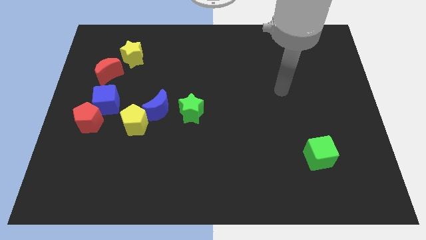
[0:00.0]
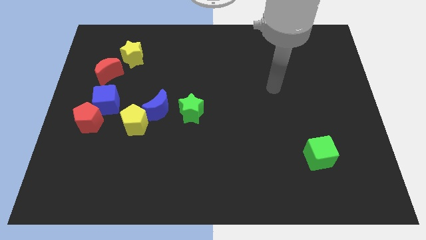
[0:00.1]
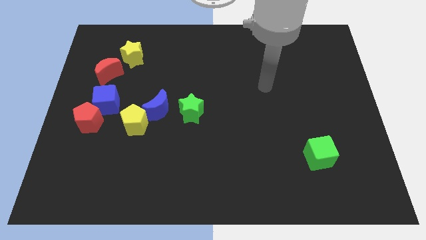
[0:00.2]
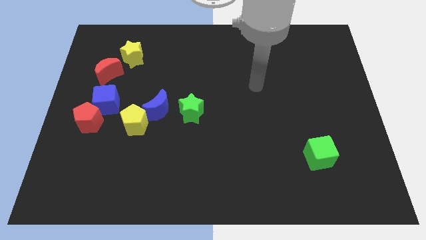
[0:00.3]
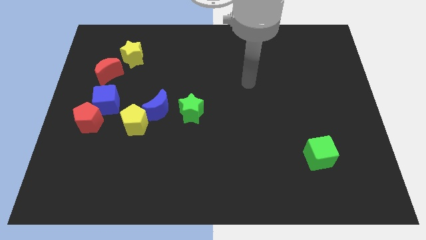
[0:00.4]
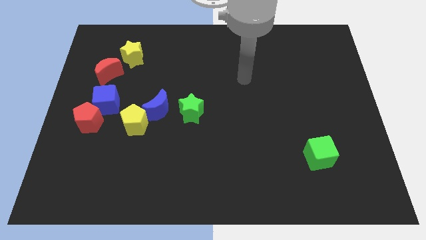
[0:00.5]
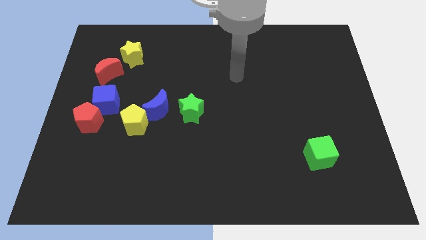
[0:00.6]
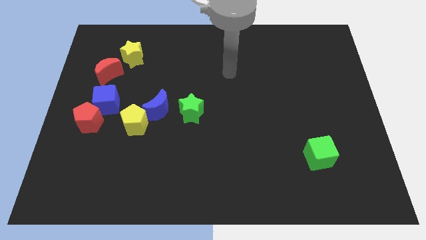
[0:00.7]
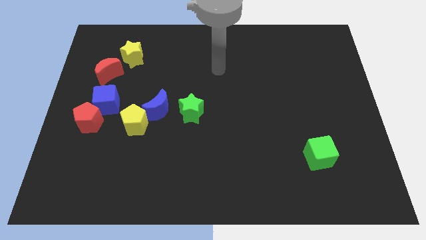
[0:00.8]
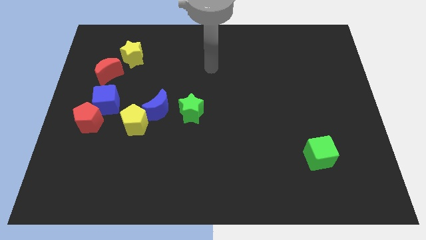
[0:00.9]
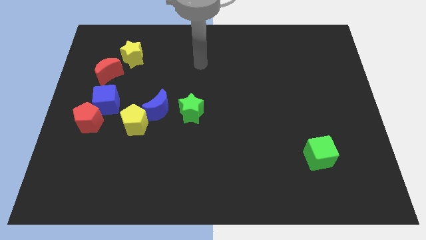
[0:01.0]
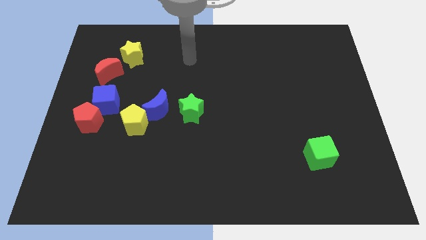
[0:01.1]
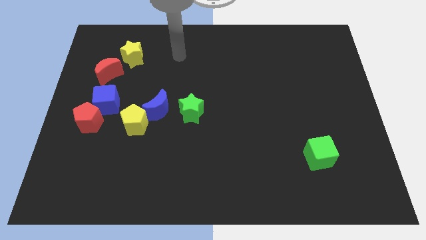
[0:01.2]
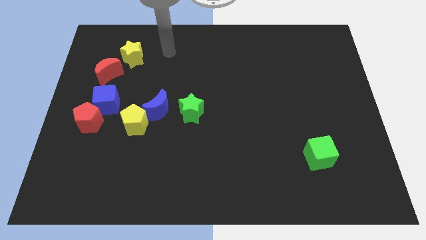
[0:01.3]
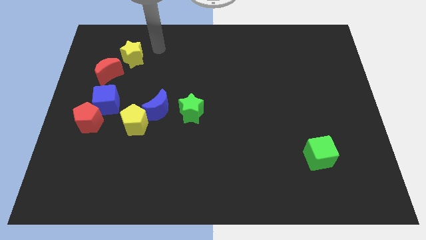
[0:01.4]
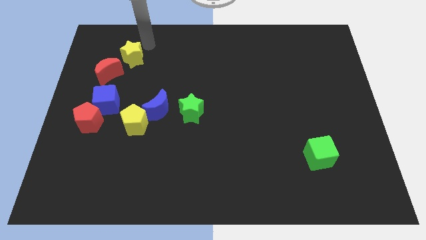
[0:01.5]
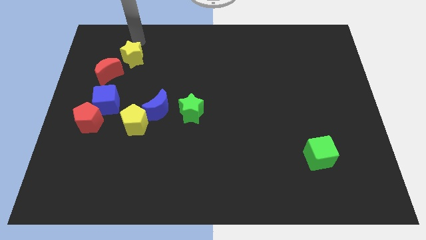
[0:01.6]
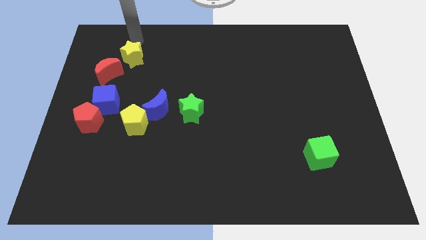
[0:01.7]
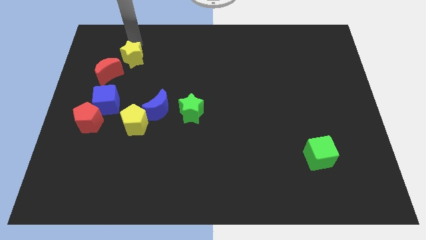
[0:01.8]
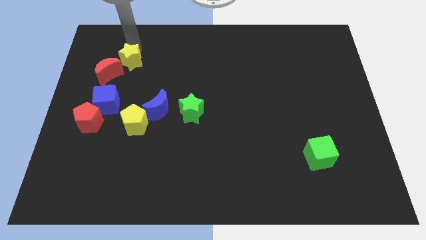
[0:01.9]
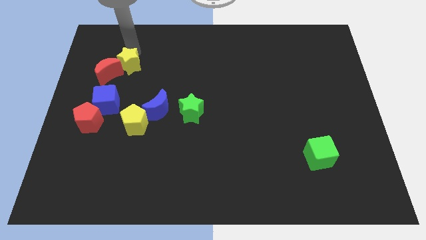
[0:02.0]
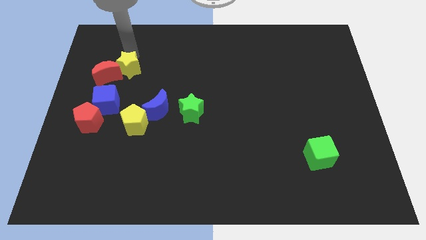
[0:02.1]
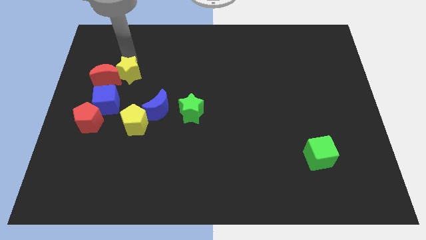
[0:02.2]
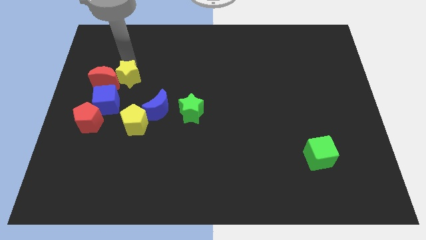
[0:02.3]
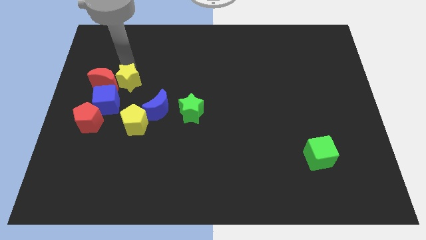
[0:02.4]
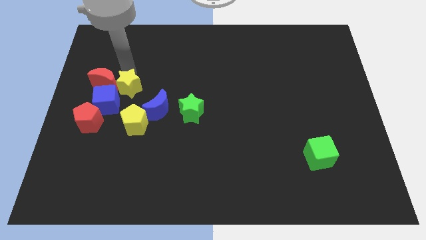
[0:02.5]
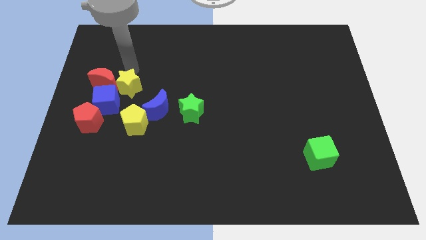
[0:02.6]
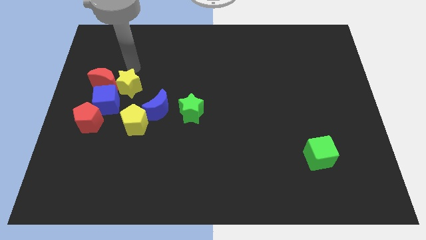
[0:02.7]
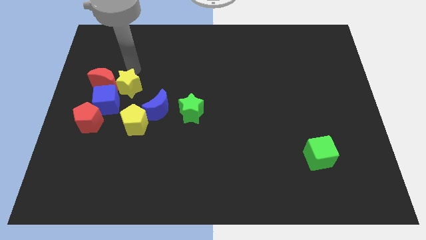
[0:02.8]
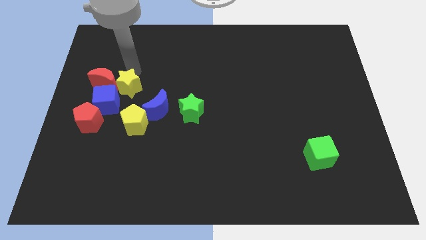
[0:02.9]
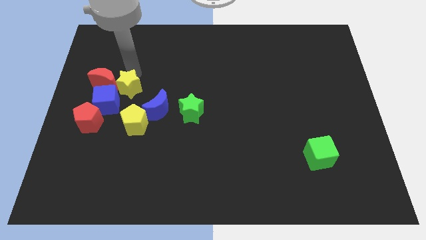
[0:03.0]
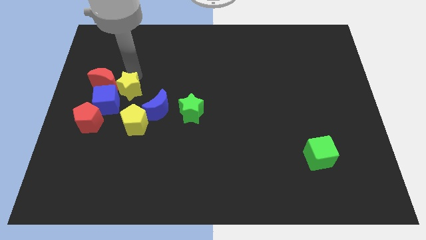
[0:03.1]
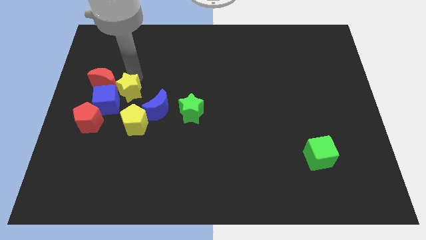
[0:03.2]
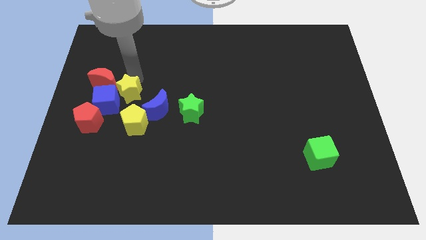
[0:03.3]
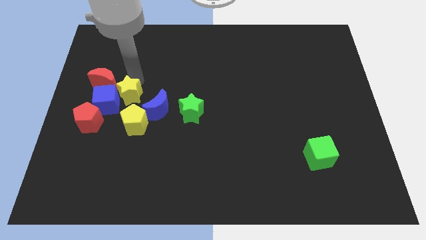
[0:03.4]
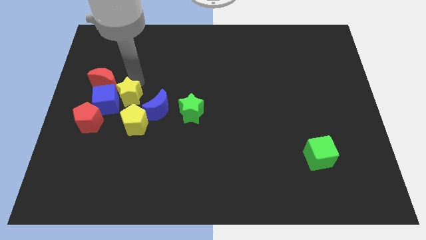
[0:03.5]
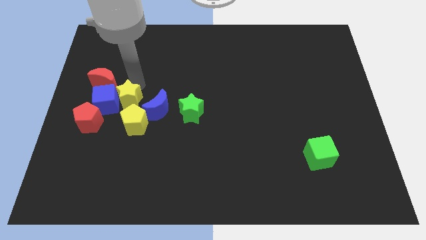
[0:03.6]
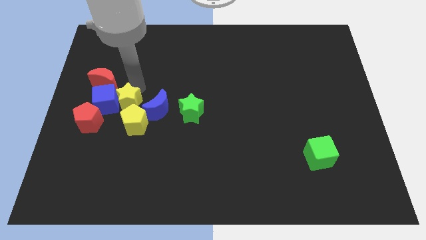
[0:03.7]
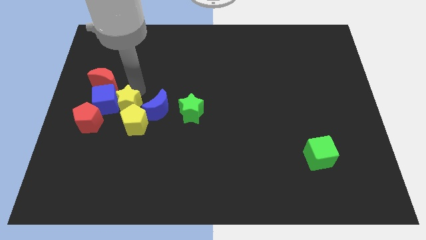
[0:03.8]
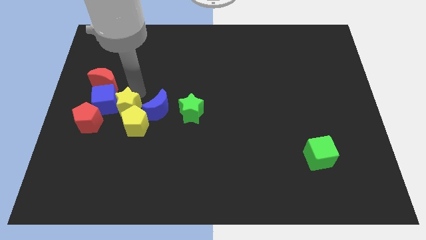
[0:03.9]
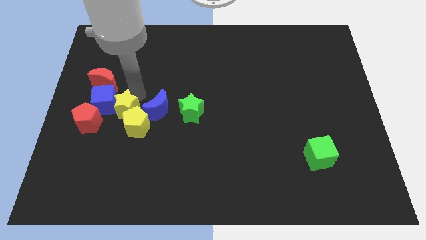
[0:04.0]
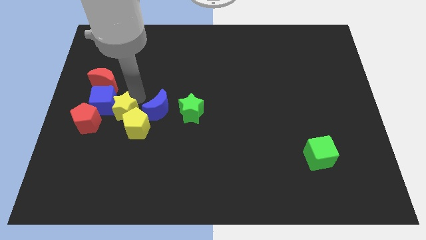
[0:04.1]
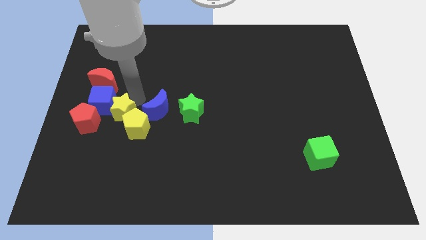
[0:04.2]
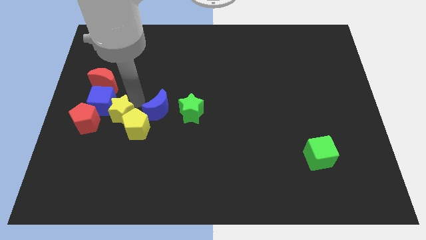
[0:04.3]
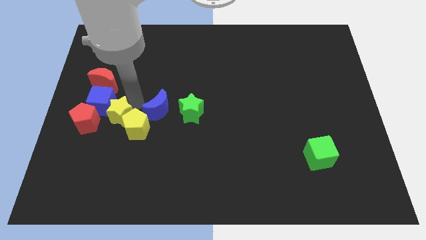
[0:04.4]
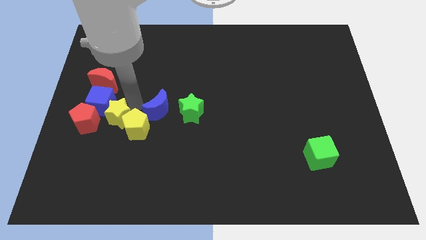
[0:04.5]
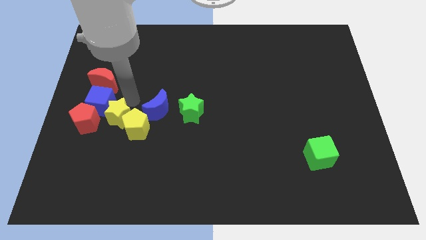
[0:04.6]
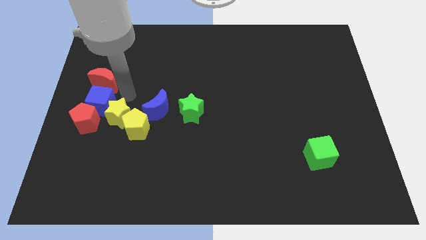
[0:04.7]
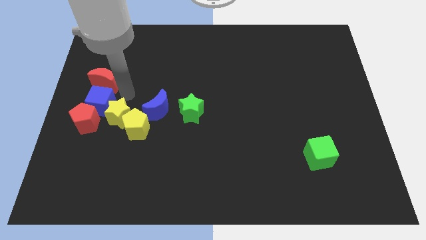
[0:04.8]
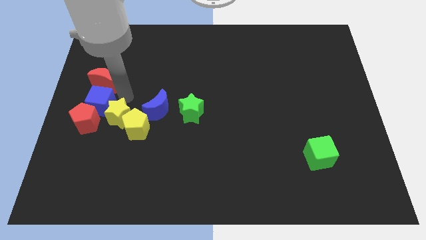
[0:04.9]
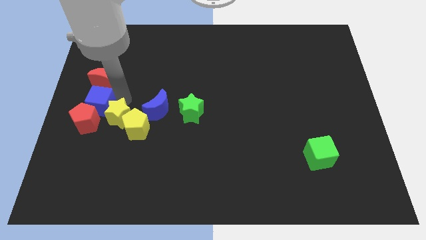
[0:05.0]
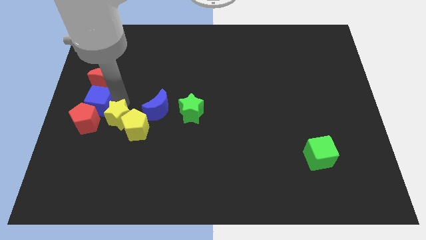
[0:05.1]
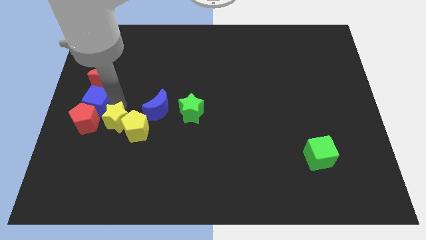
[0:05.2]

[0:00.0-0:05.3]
push the yellow star down

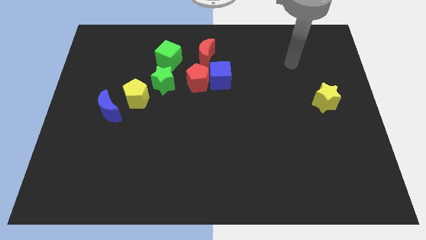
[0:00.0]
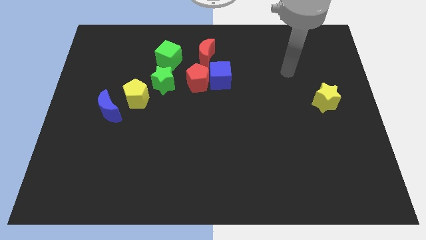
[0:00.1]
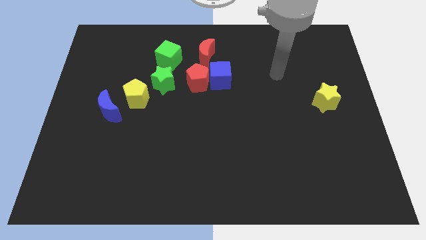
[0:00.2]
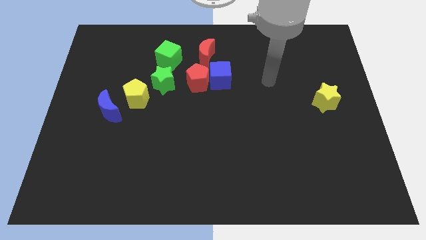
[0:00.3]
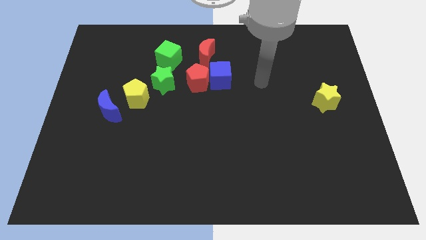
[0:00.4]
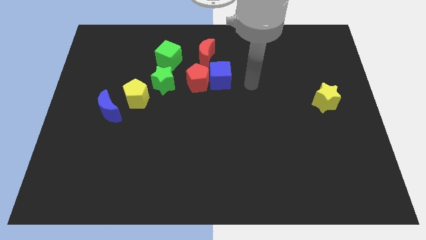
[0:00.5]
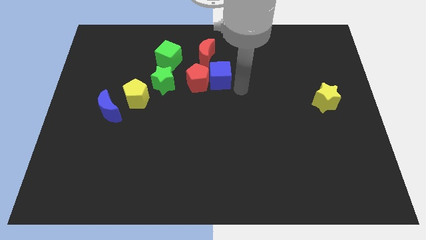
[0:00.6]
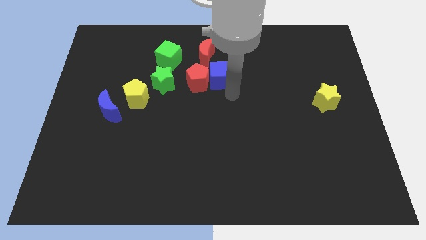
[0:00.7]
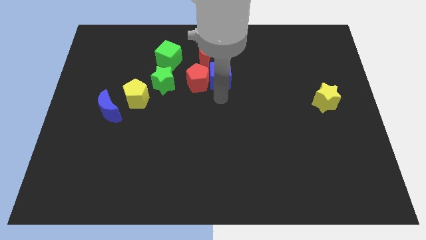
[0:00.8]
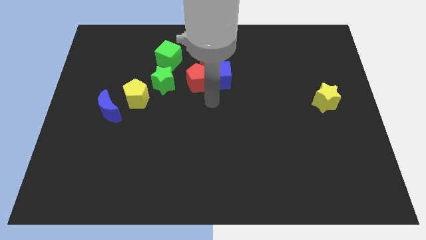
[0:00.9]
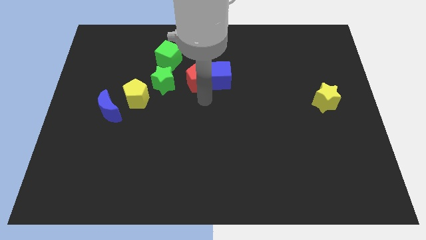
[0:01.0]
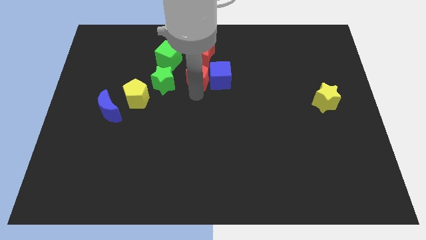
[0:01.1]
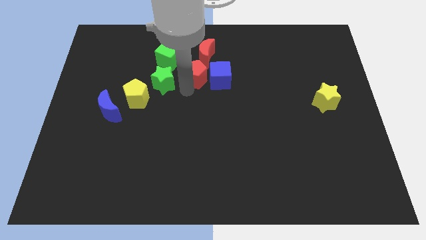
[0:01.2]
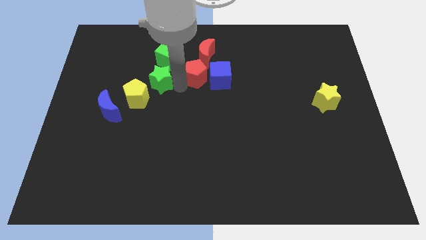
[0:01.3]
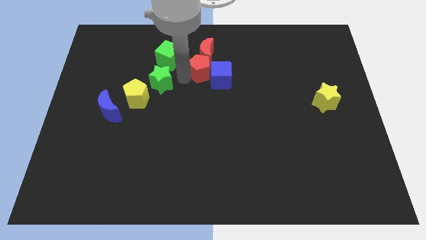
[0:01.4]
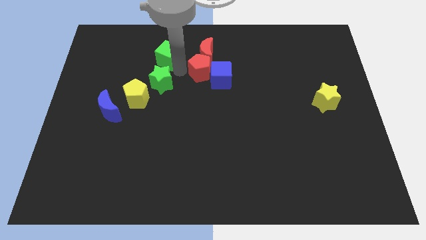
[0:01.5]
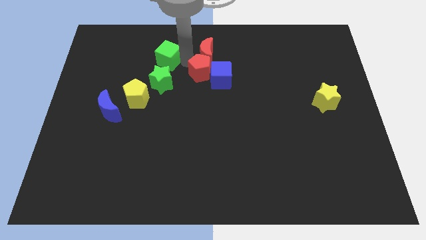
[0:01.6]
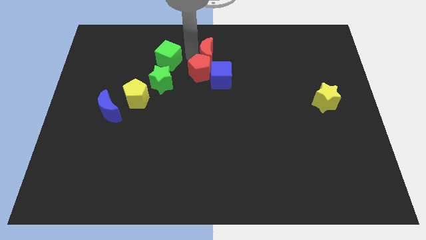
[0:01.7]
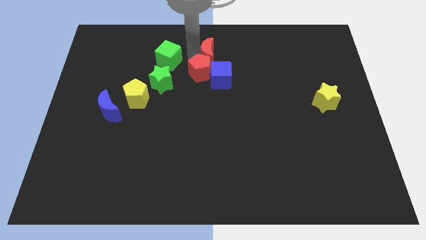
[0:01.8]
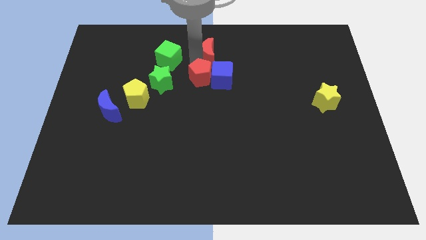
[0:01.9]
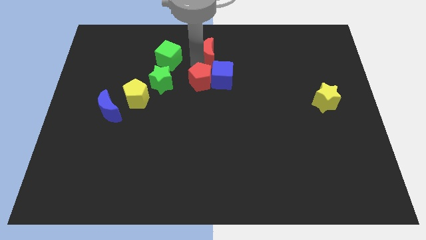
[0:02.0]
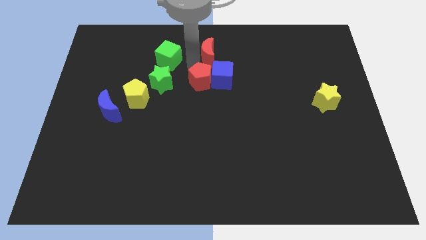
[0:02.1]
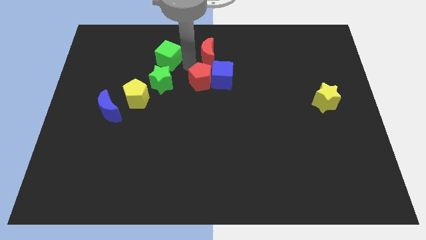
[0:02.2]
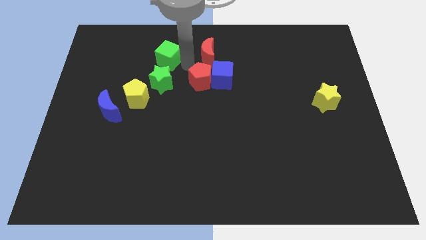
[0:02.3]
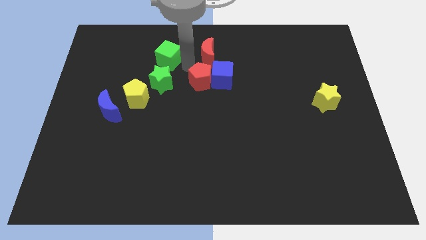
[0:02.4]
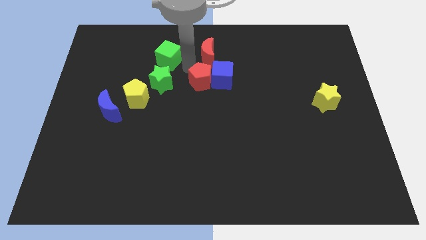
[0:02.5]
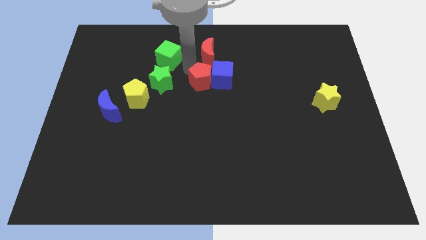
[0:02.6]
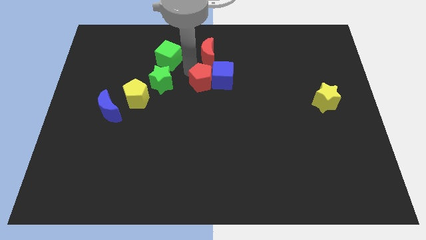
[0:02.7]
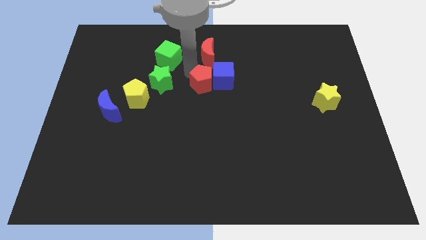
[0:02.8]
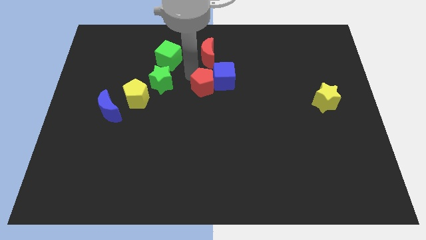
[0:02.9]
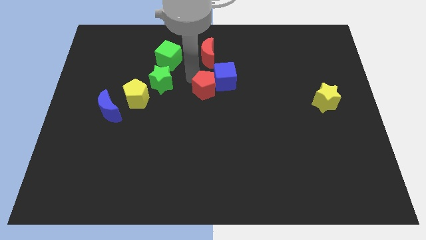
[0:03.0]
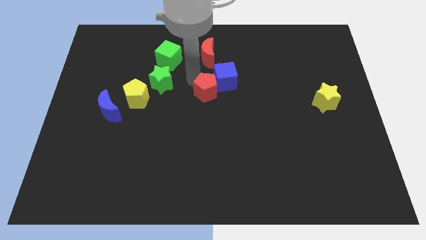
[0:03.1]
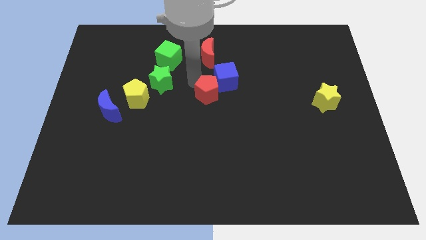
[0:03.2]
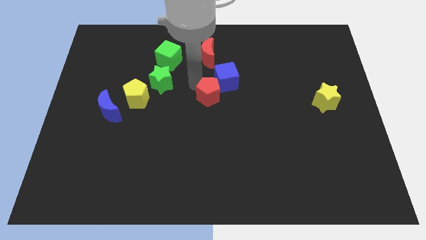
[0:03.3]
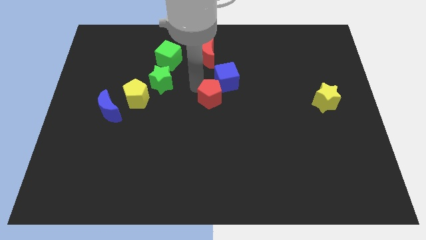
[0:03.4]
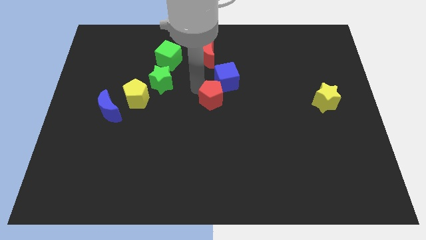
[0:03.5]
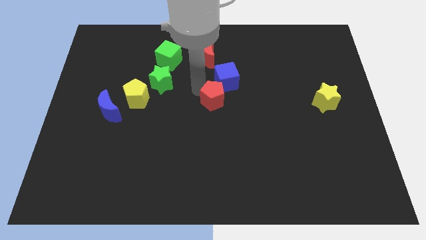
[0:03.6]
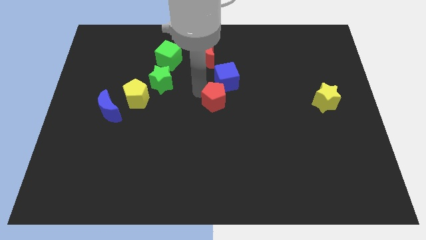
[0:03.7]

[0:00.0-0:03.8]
push the red pentagon slightly down and to the right diagonally
